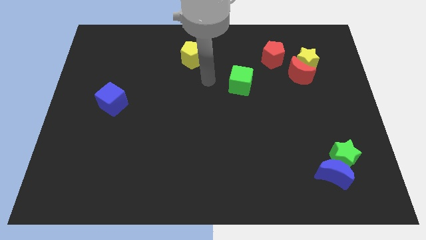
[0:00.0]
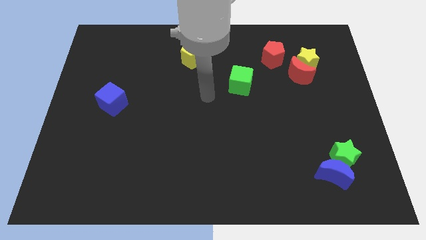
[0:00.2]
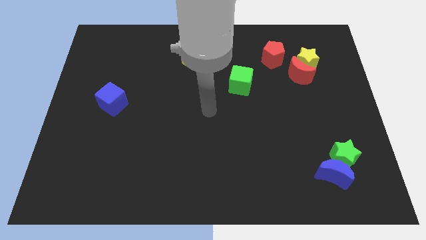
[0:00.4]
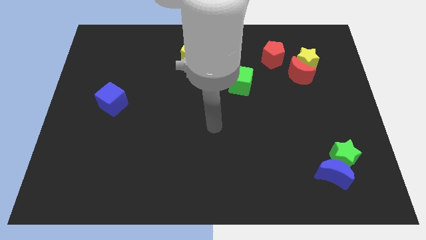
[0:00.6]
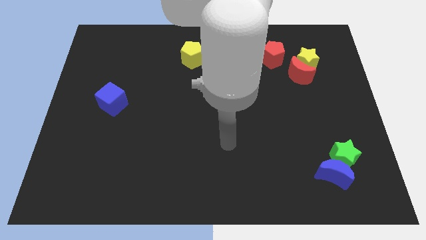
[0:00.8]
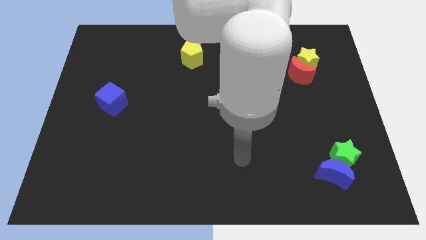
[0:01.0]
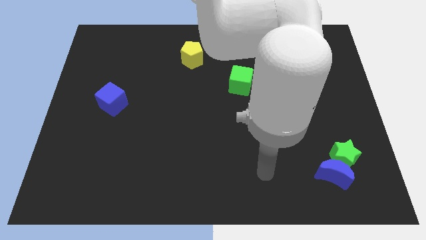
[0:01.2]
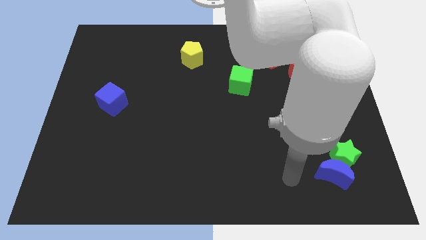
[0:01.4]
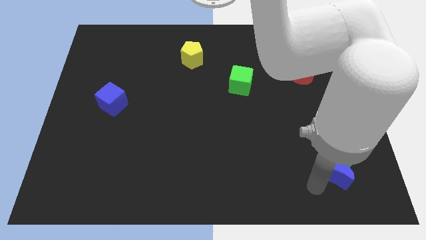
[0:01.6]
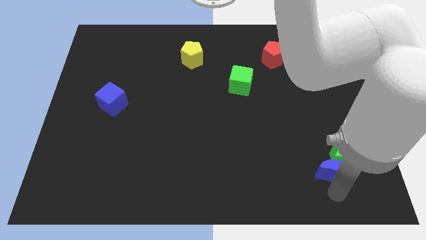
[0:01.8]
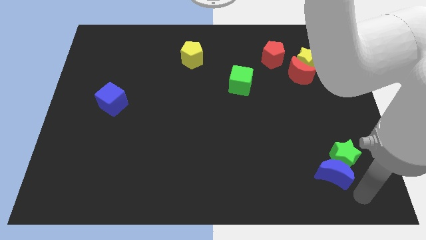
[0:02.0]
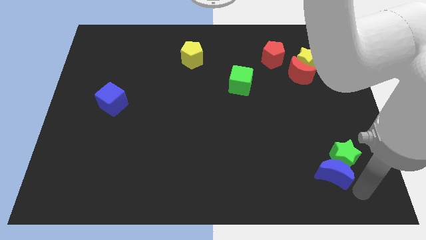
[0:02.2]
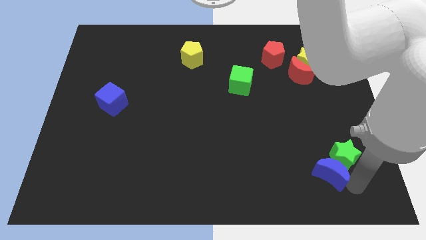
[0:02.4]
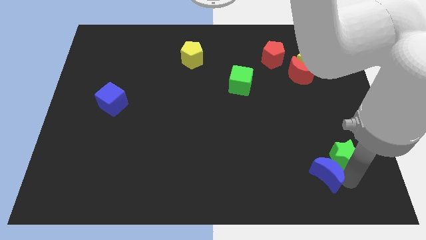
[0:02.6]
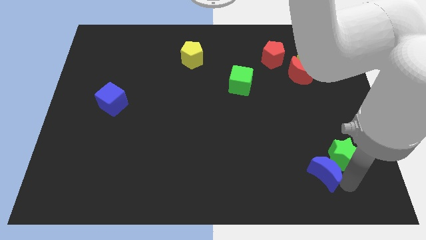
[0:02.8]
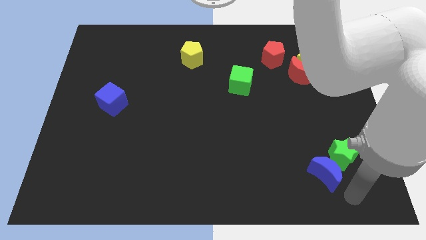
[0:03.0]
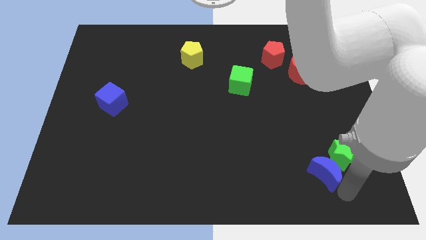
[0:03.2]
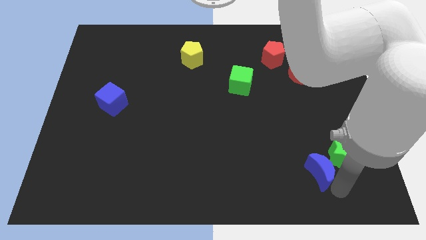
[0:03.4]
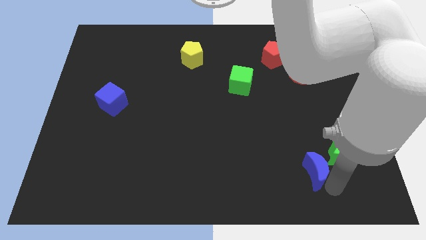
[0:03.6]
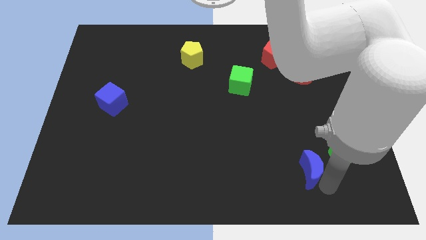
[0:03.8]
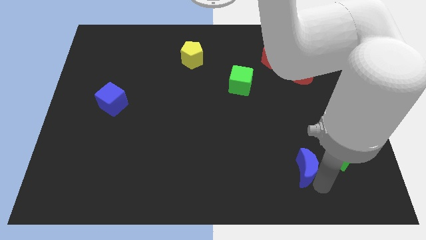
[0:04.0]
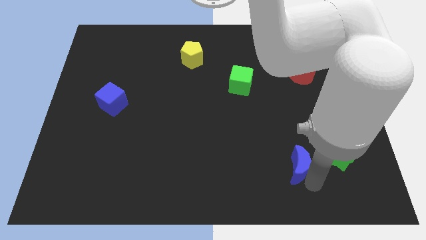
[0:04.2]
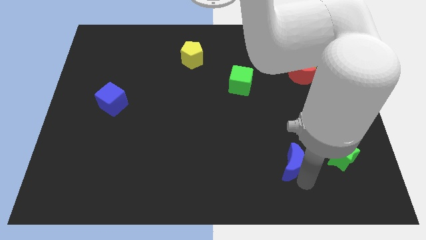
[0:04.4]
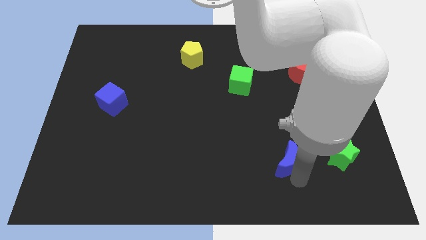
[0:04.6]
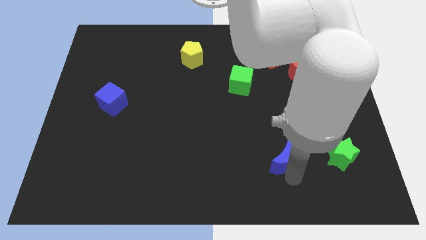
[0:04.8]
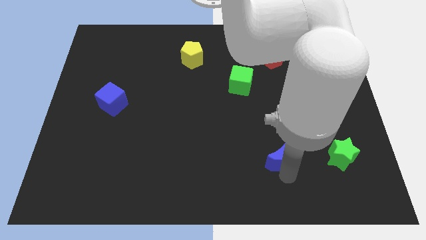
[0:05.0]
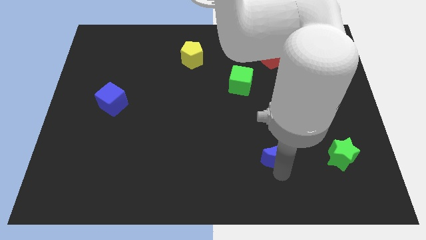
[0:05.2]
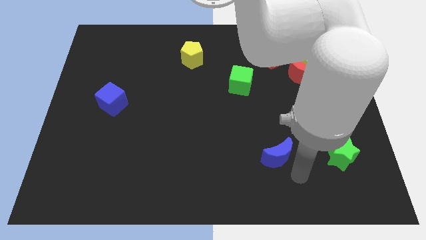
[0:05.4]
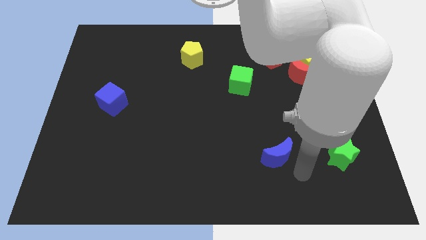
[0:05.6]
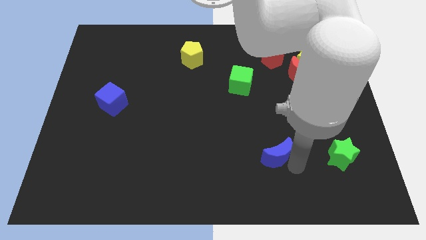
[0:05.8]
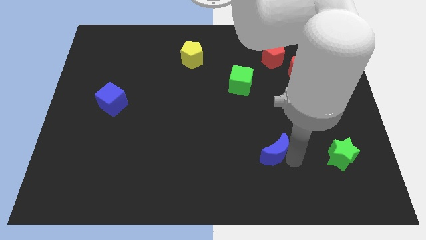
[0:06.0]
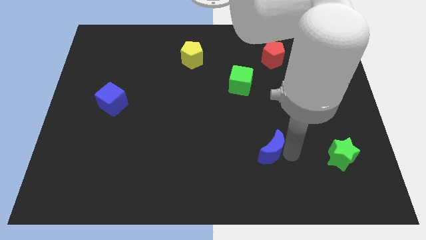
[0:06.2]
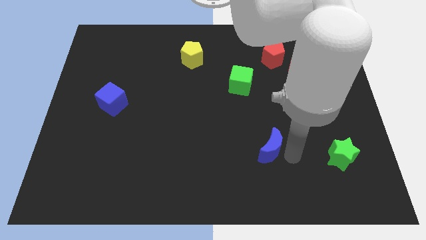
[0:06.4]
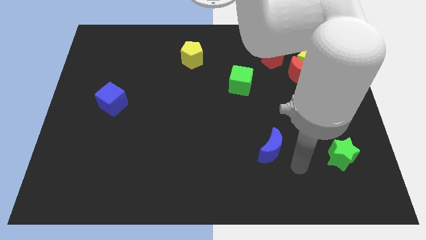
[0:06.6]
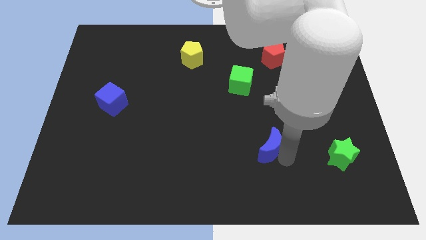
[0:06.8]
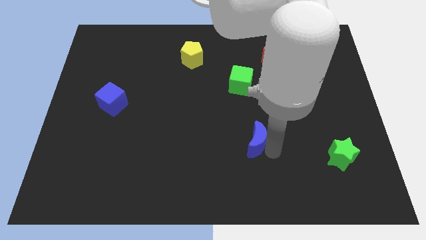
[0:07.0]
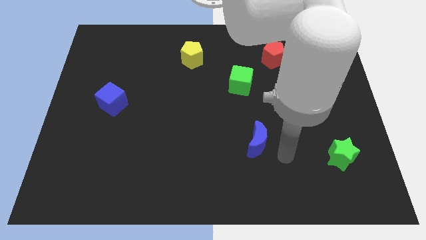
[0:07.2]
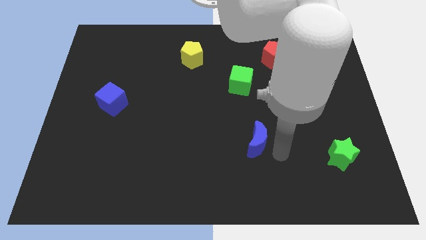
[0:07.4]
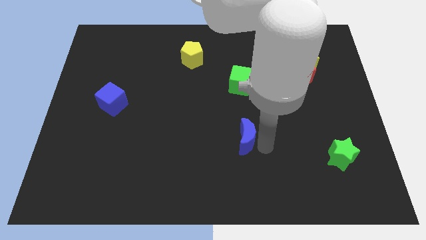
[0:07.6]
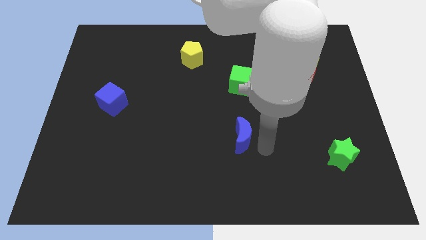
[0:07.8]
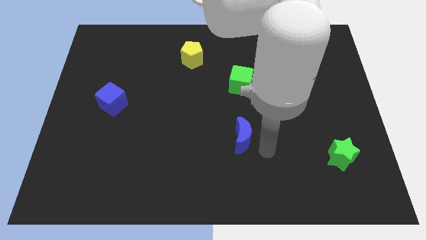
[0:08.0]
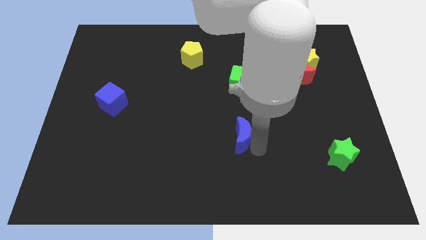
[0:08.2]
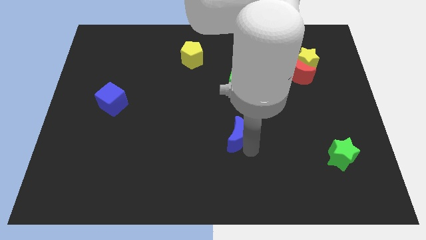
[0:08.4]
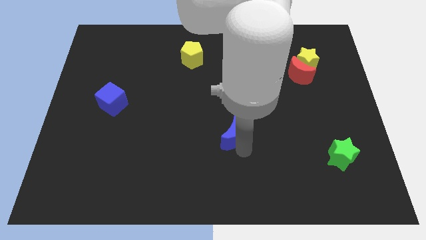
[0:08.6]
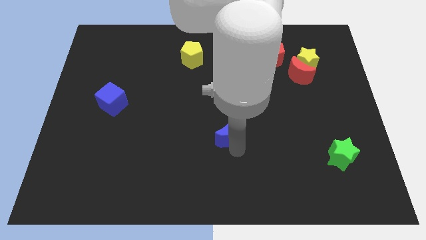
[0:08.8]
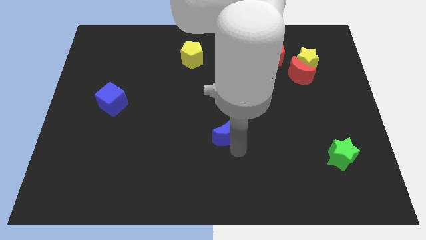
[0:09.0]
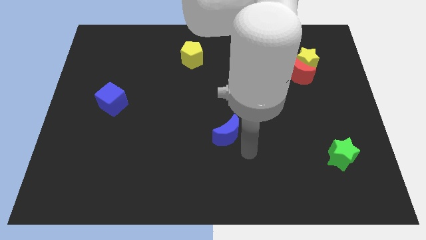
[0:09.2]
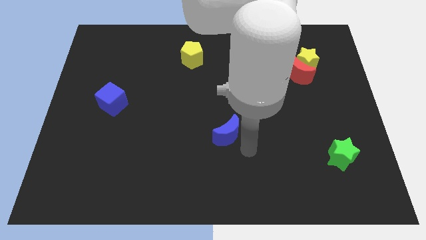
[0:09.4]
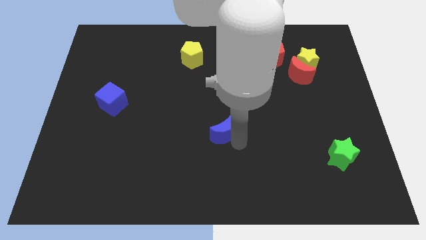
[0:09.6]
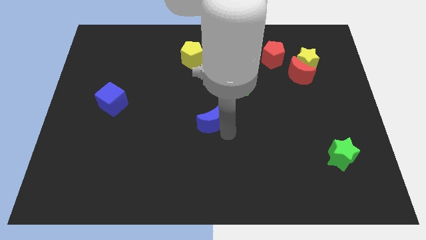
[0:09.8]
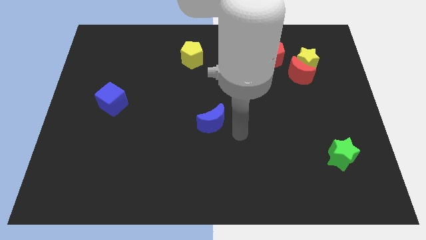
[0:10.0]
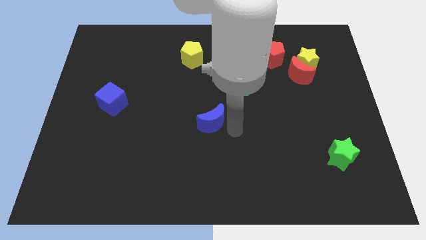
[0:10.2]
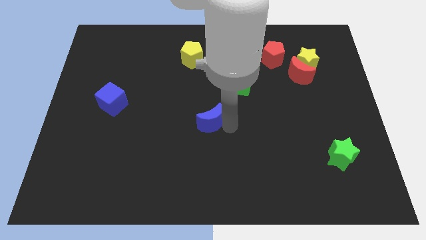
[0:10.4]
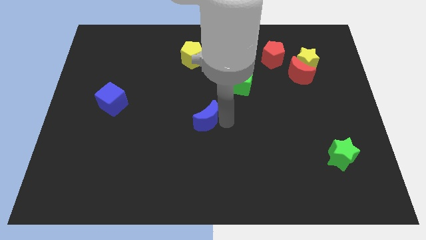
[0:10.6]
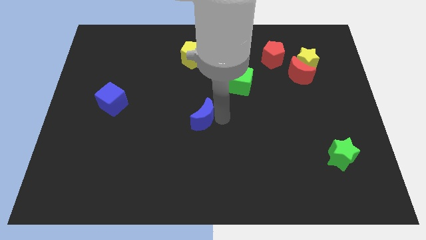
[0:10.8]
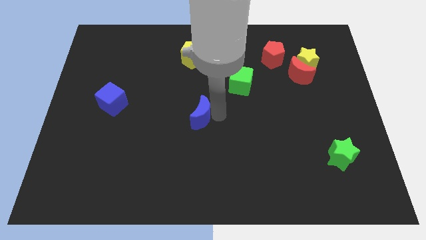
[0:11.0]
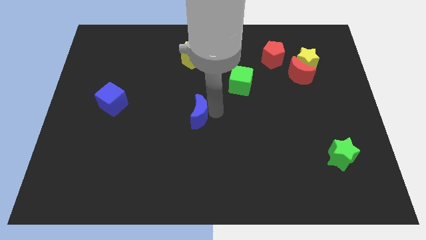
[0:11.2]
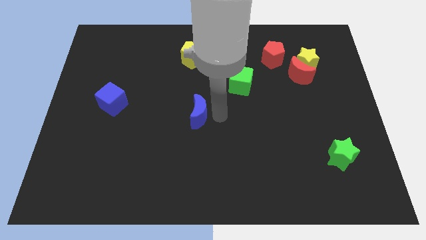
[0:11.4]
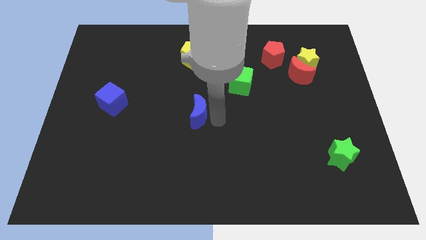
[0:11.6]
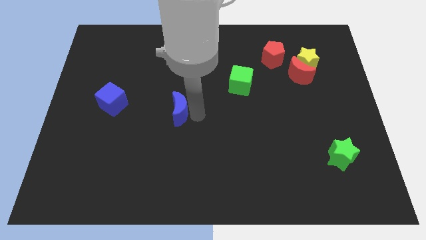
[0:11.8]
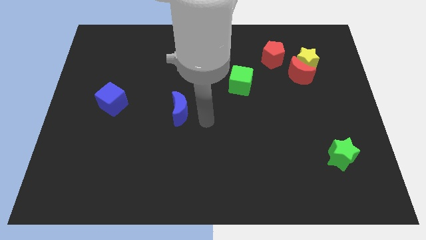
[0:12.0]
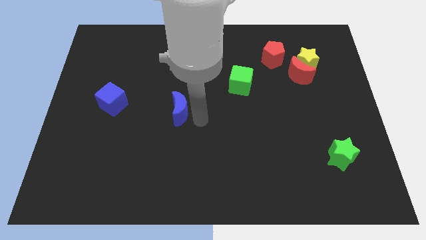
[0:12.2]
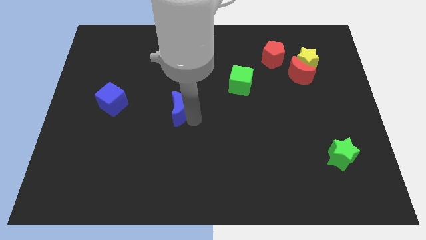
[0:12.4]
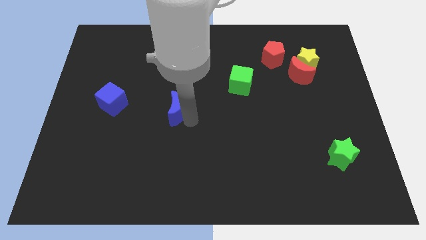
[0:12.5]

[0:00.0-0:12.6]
move the blue moon to the right side of the blue cube

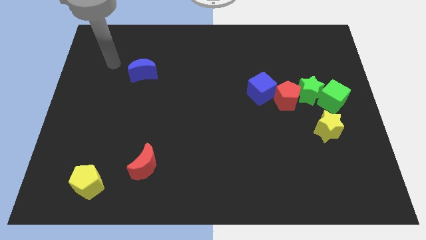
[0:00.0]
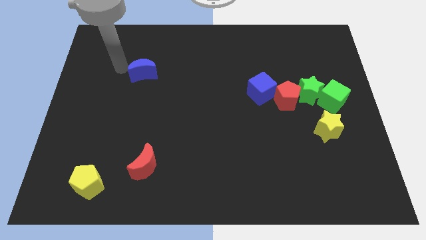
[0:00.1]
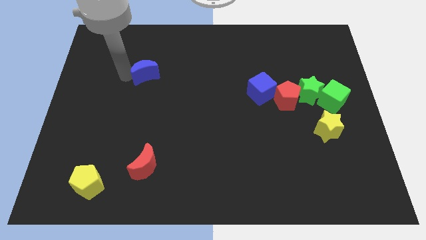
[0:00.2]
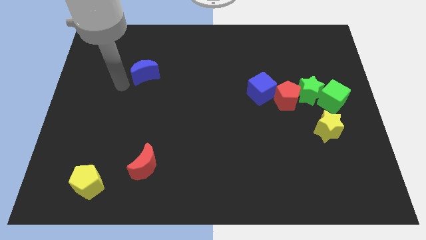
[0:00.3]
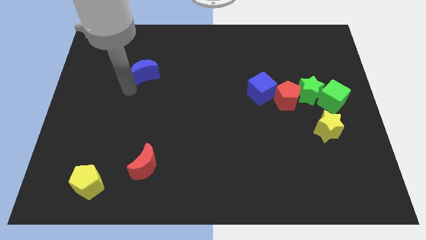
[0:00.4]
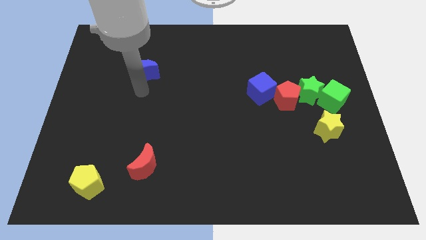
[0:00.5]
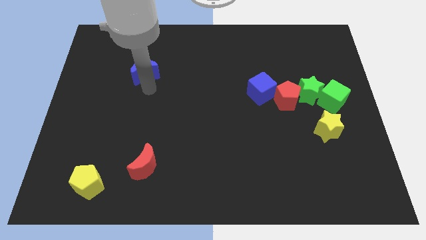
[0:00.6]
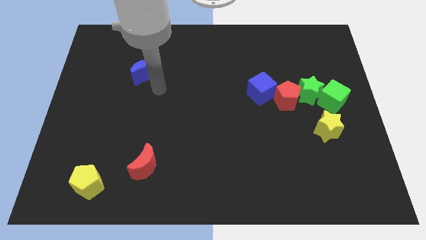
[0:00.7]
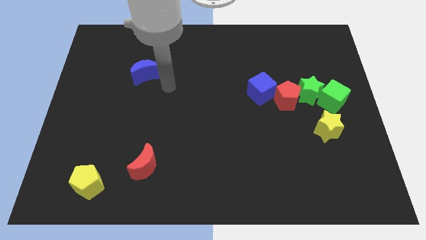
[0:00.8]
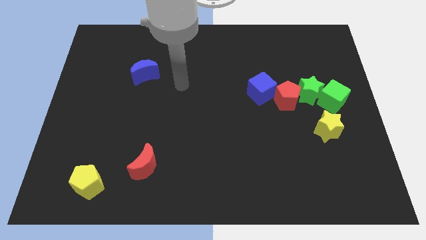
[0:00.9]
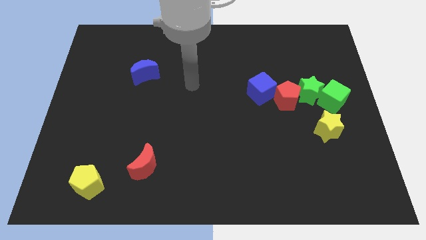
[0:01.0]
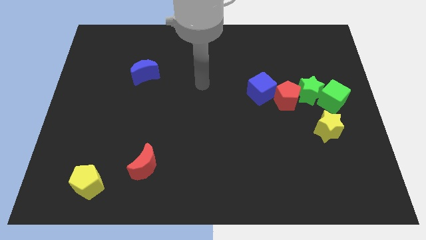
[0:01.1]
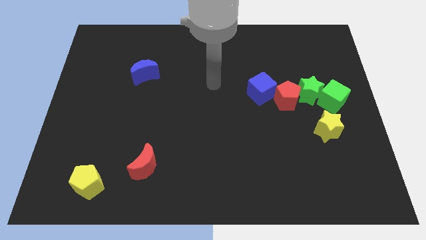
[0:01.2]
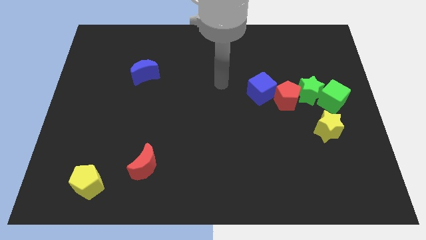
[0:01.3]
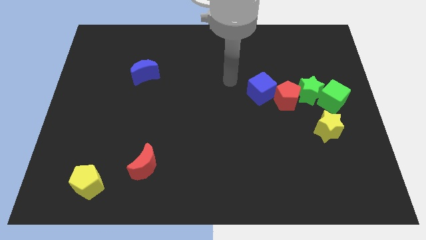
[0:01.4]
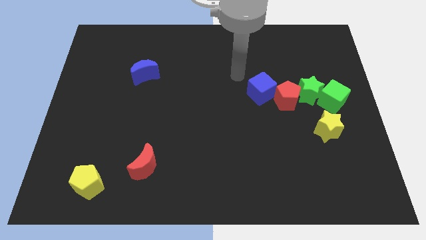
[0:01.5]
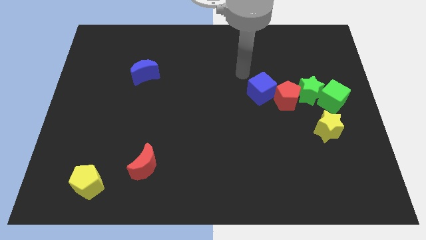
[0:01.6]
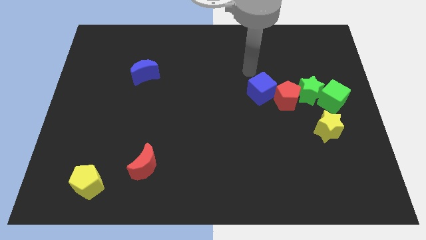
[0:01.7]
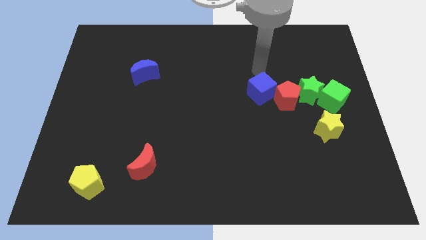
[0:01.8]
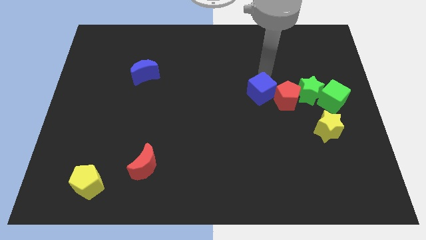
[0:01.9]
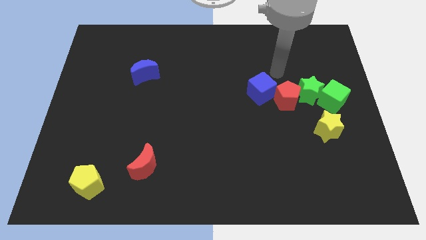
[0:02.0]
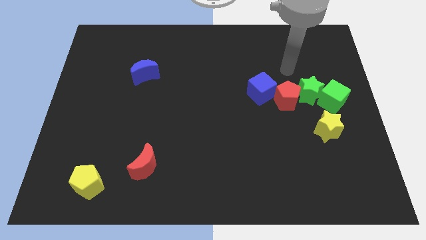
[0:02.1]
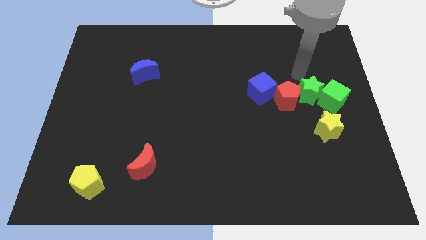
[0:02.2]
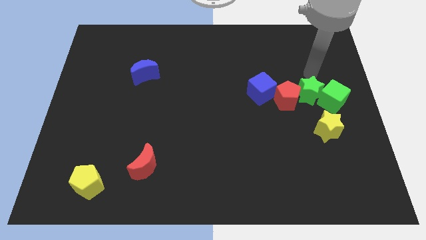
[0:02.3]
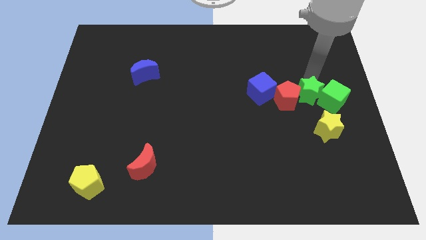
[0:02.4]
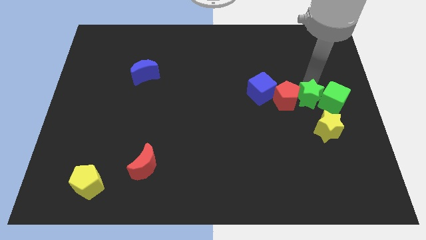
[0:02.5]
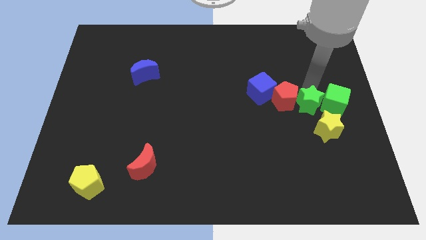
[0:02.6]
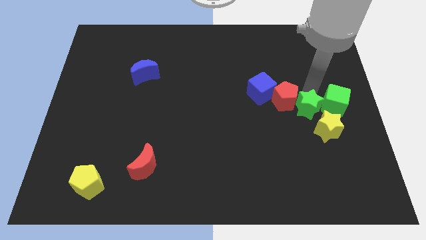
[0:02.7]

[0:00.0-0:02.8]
move the green star diagonally down and to the right of the blue cube
